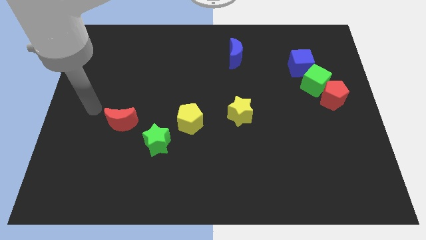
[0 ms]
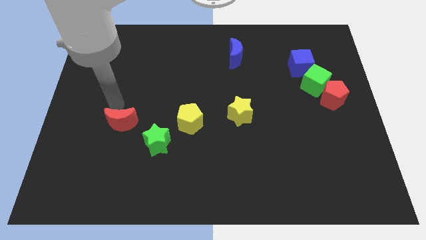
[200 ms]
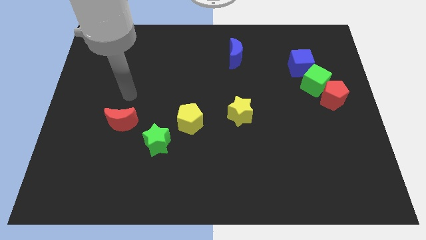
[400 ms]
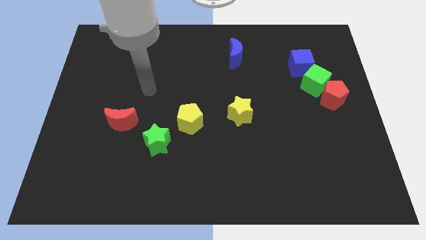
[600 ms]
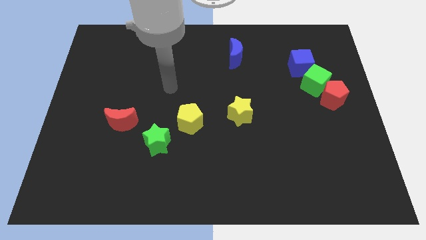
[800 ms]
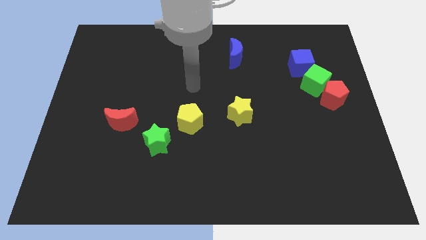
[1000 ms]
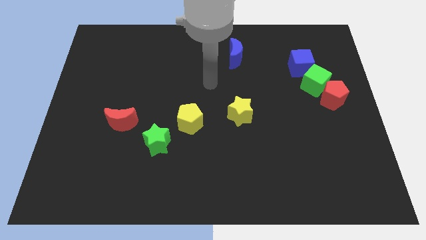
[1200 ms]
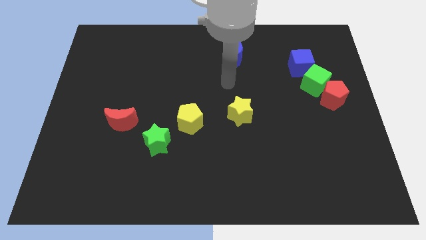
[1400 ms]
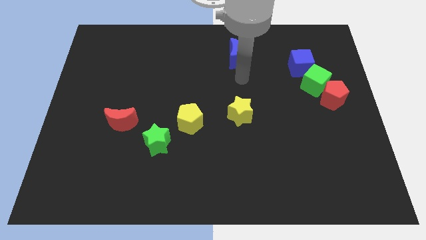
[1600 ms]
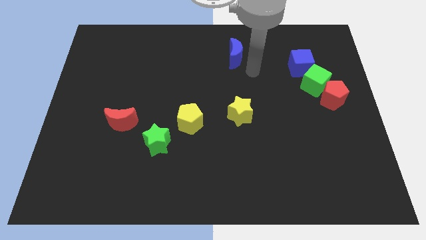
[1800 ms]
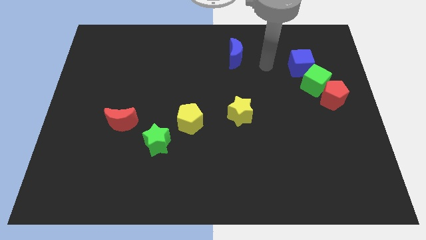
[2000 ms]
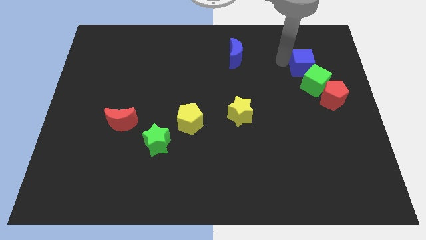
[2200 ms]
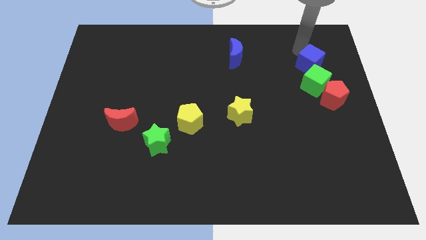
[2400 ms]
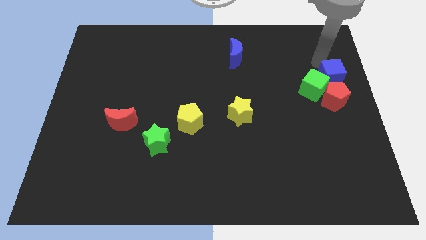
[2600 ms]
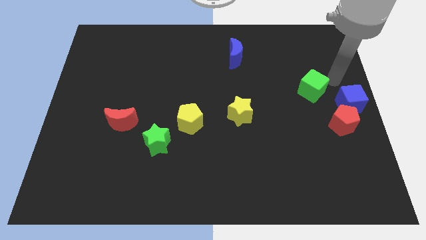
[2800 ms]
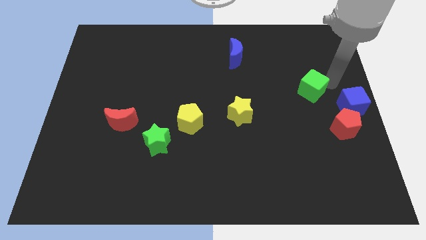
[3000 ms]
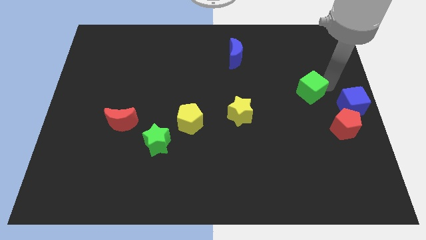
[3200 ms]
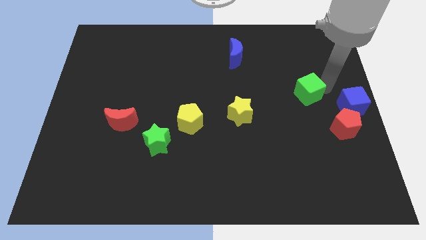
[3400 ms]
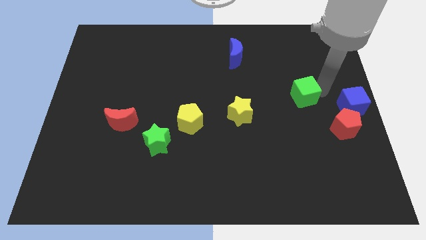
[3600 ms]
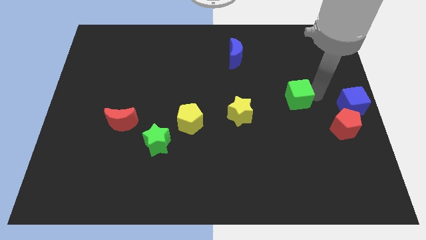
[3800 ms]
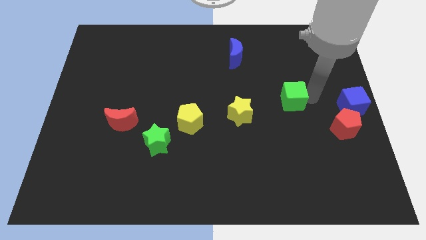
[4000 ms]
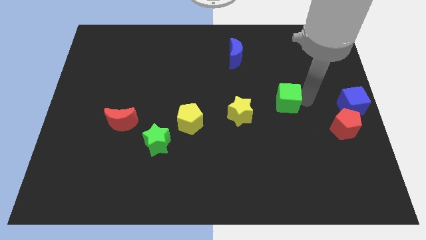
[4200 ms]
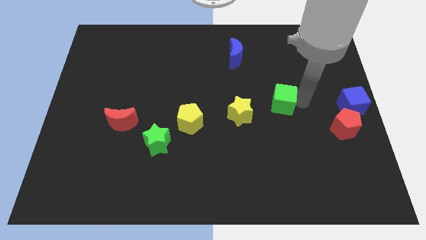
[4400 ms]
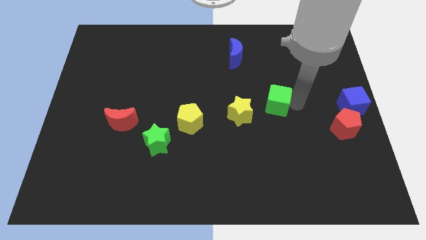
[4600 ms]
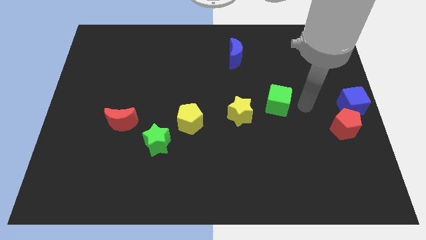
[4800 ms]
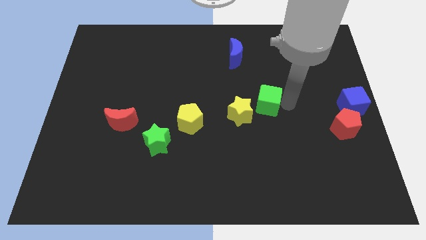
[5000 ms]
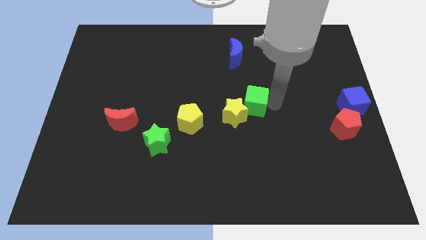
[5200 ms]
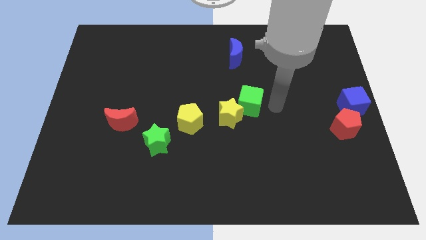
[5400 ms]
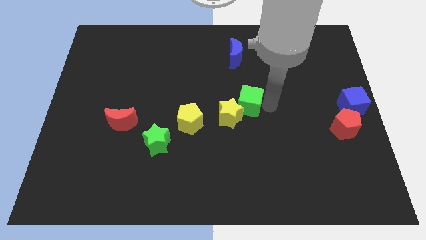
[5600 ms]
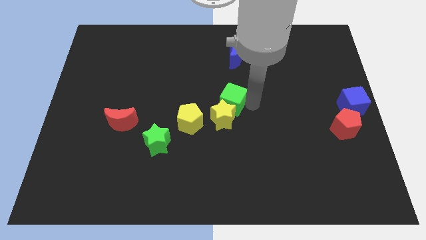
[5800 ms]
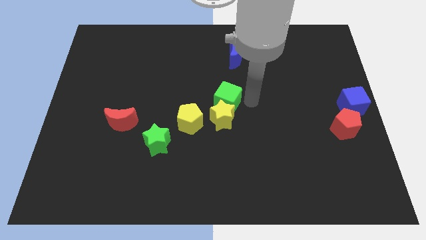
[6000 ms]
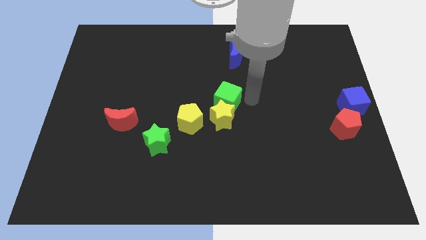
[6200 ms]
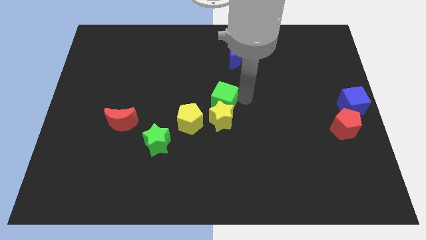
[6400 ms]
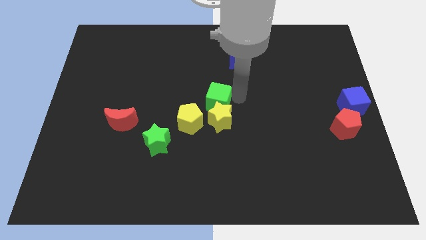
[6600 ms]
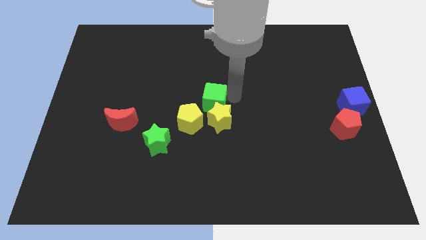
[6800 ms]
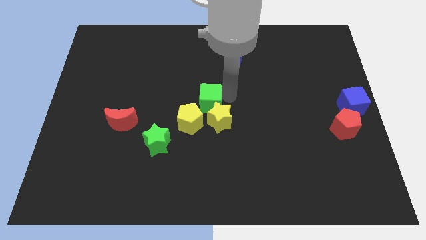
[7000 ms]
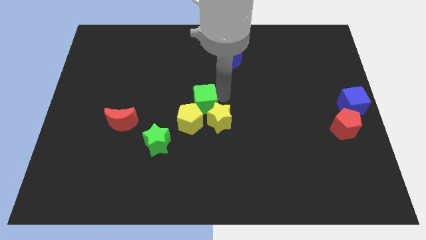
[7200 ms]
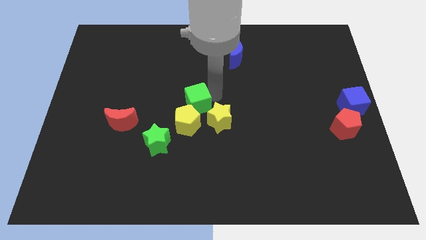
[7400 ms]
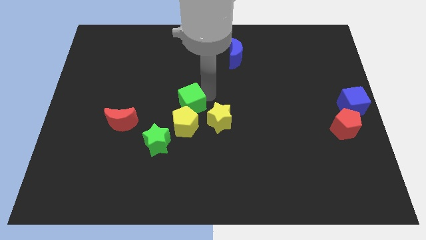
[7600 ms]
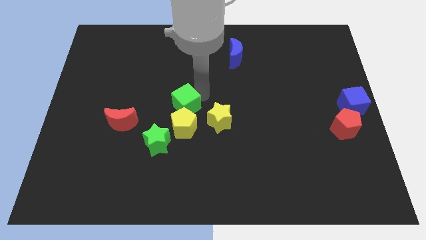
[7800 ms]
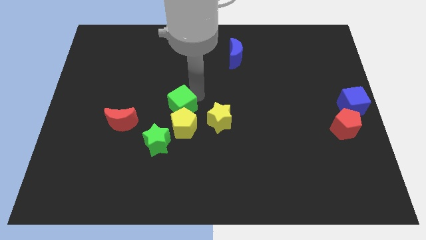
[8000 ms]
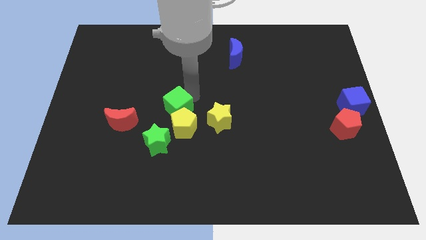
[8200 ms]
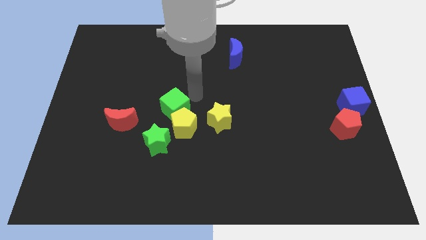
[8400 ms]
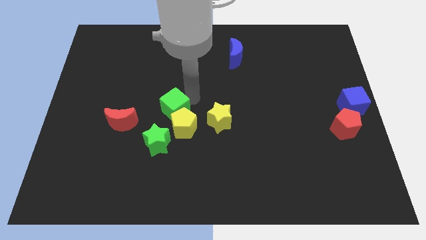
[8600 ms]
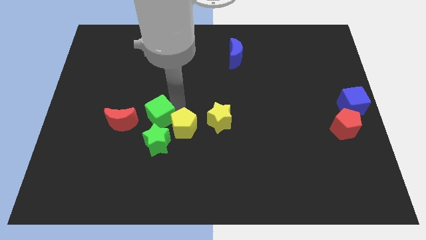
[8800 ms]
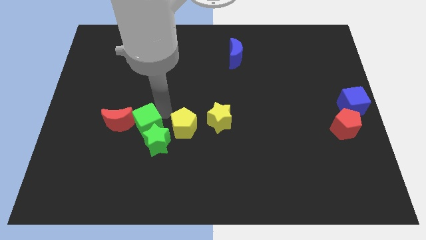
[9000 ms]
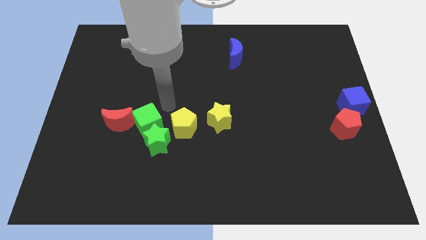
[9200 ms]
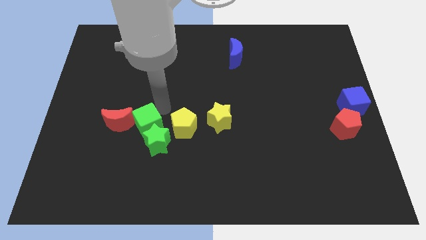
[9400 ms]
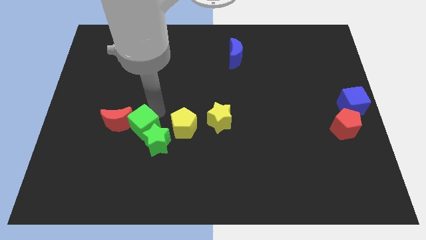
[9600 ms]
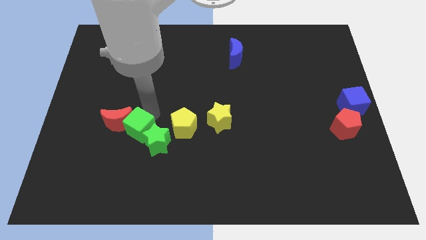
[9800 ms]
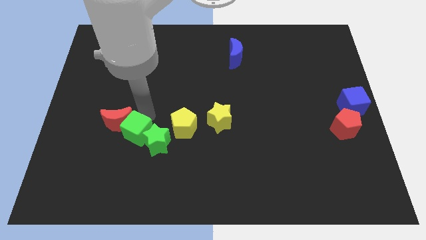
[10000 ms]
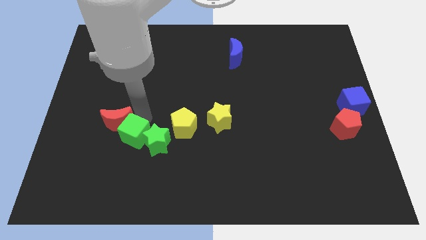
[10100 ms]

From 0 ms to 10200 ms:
slide the green cube below the red moon

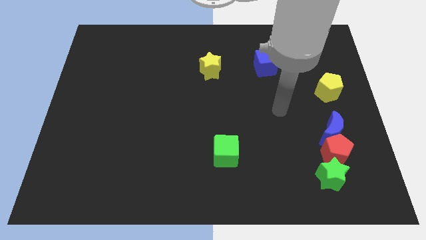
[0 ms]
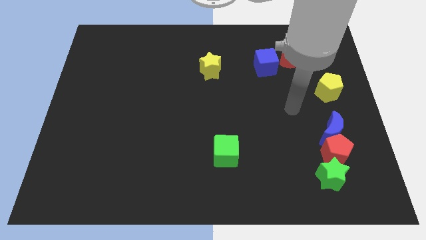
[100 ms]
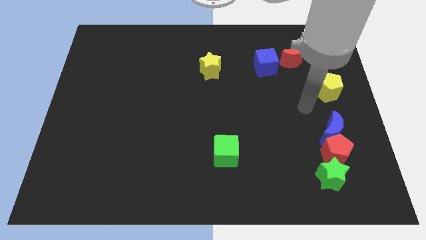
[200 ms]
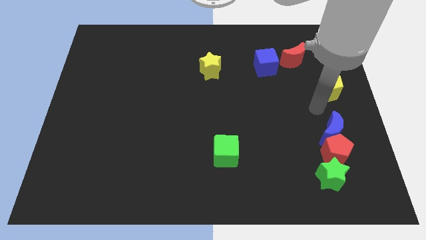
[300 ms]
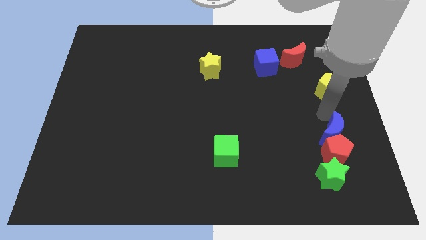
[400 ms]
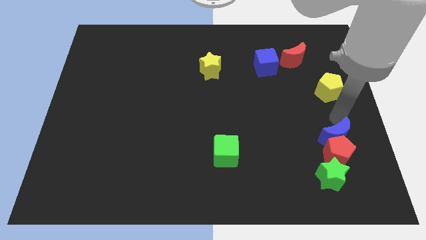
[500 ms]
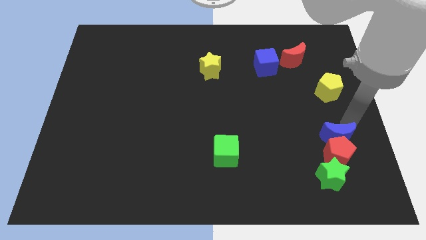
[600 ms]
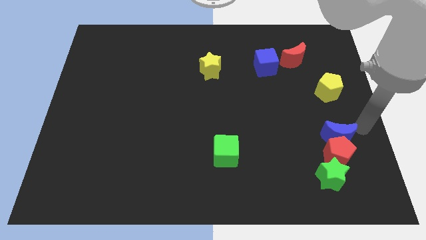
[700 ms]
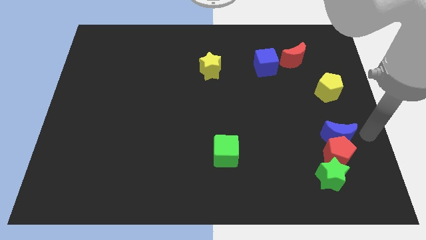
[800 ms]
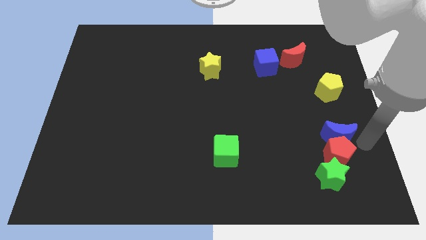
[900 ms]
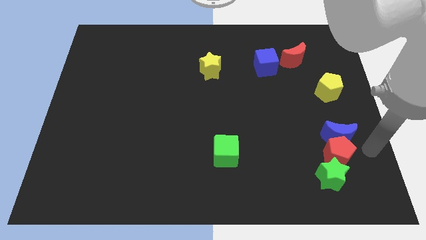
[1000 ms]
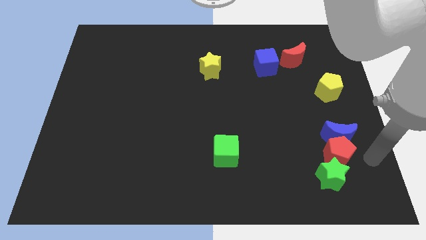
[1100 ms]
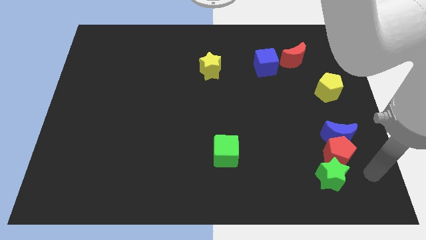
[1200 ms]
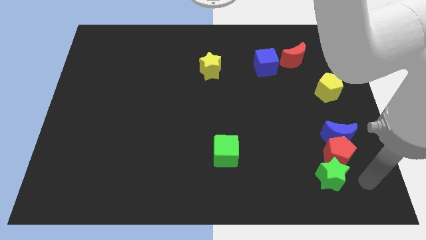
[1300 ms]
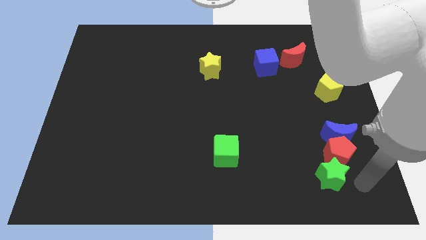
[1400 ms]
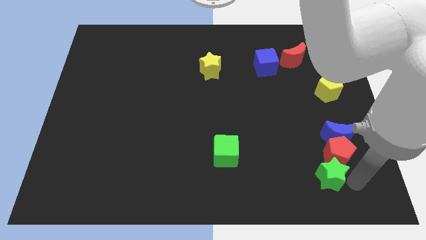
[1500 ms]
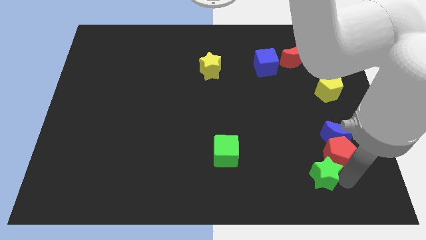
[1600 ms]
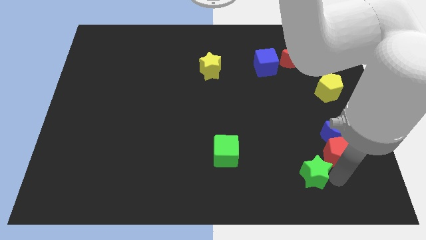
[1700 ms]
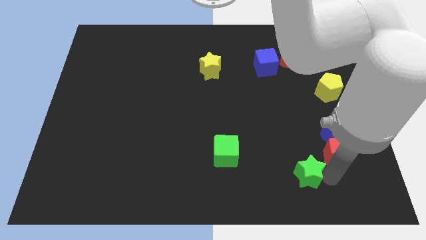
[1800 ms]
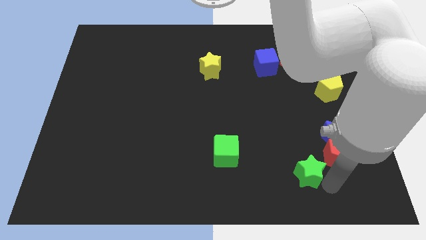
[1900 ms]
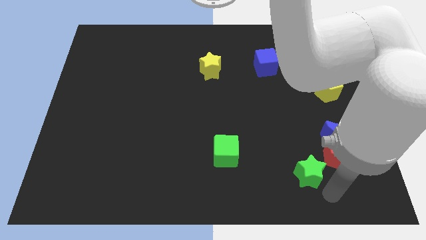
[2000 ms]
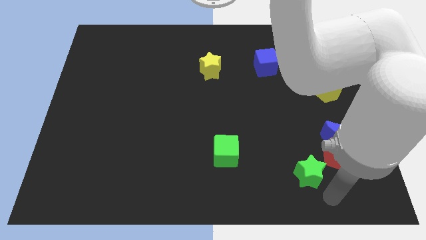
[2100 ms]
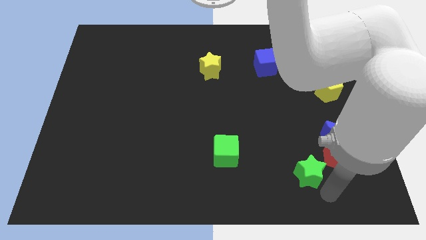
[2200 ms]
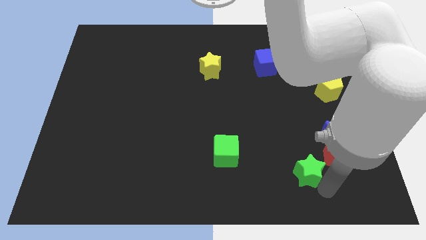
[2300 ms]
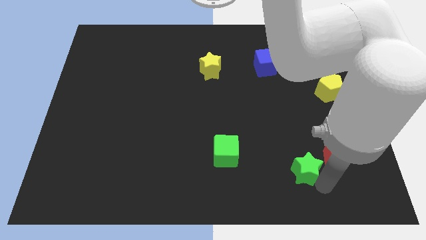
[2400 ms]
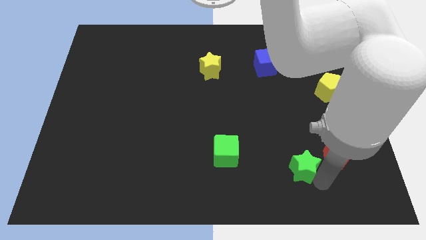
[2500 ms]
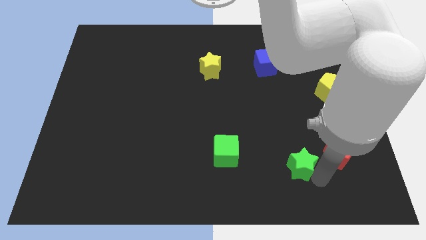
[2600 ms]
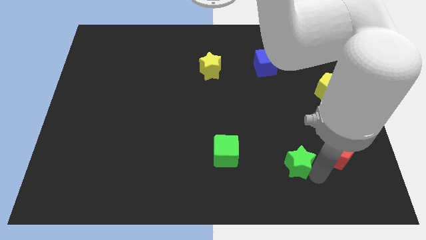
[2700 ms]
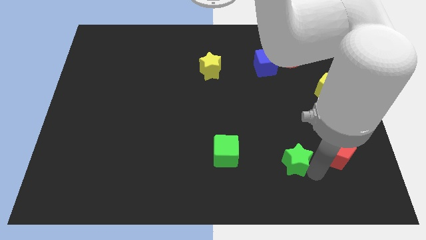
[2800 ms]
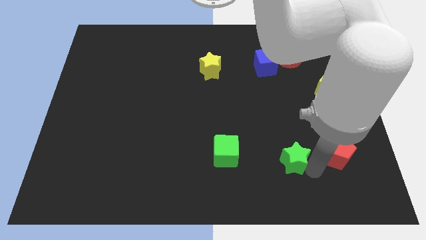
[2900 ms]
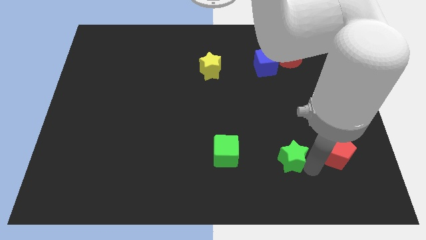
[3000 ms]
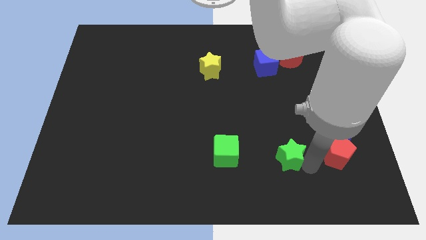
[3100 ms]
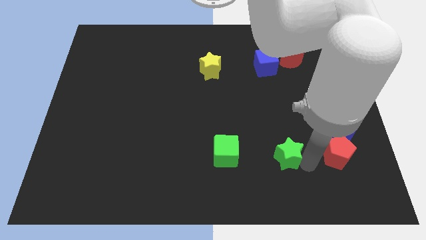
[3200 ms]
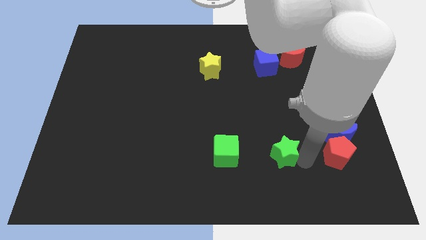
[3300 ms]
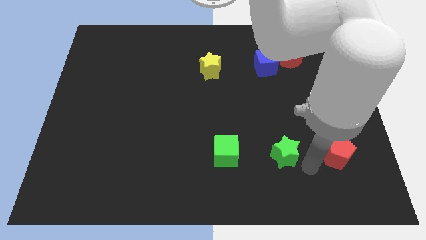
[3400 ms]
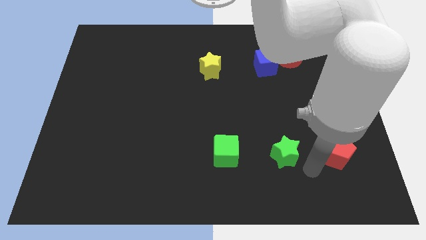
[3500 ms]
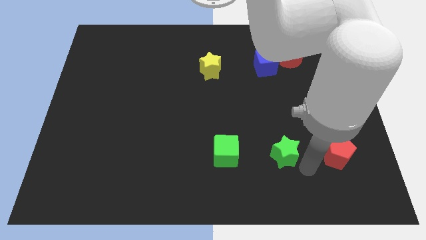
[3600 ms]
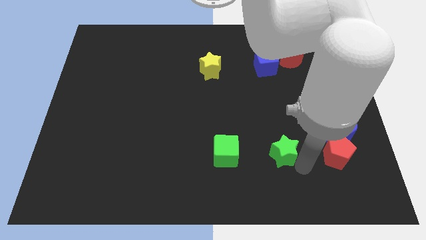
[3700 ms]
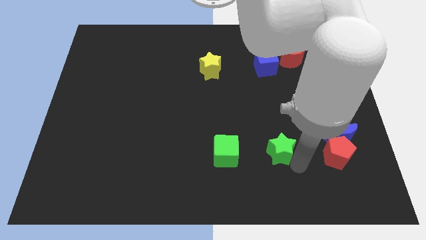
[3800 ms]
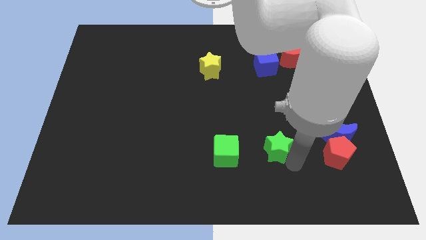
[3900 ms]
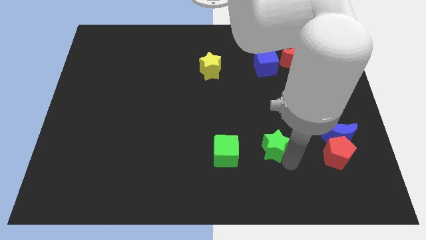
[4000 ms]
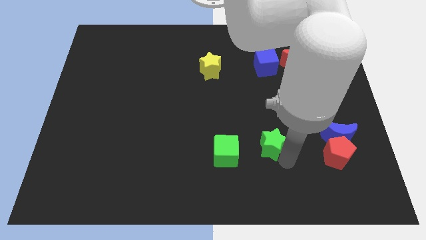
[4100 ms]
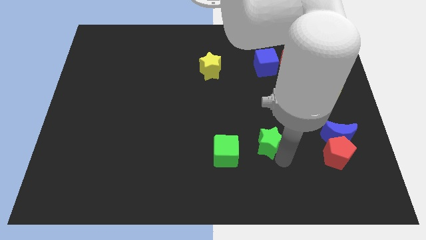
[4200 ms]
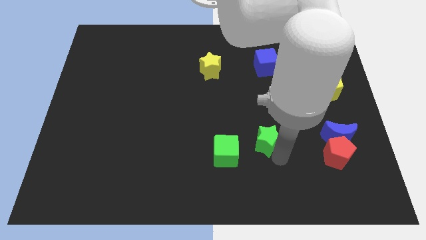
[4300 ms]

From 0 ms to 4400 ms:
put the green star to the top right of the green cube
